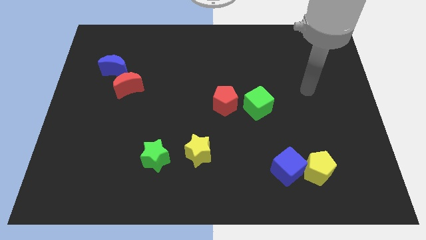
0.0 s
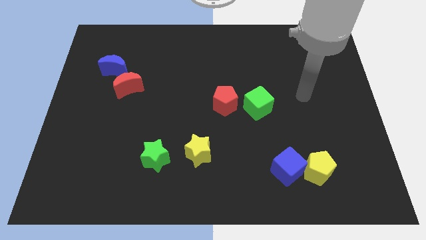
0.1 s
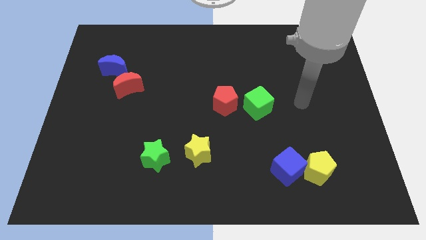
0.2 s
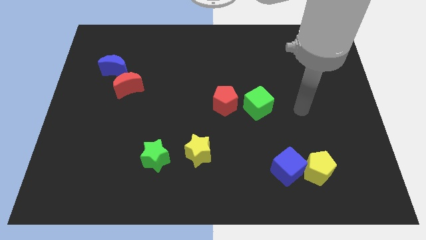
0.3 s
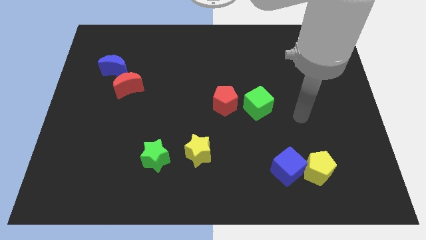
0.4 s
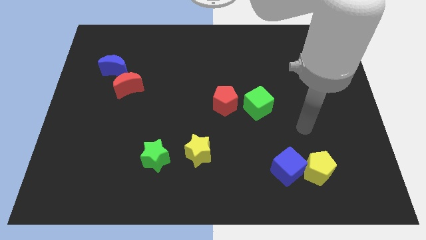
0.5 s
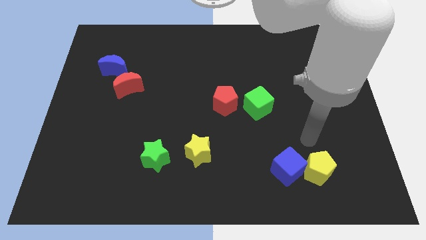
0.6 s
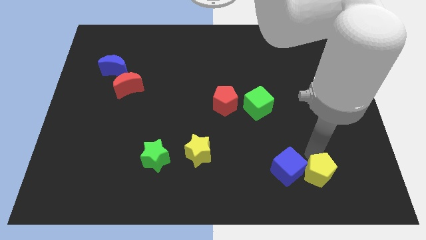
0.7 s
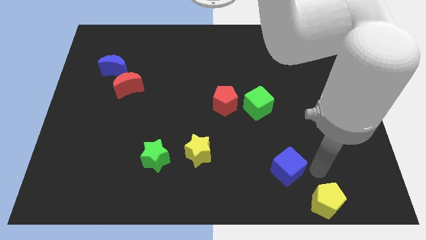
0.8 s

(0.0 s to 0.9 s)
separate the blue cube from the yellow pentagon

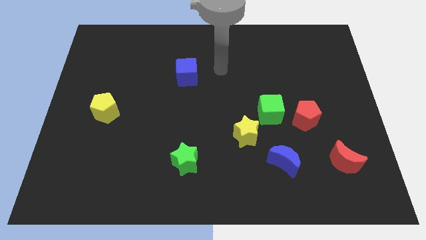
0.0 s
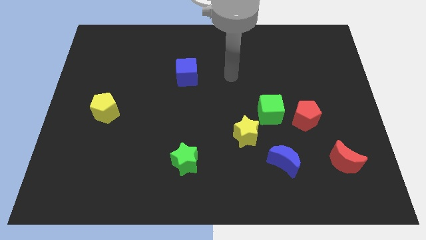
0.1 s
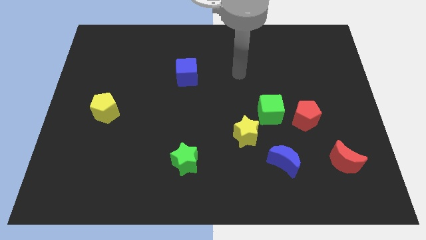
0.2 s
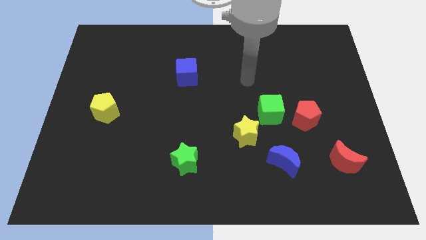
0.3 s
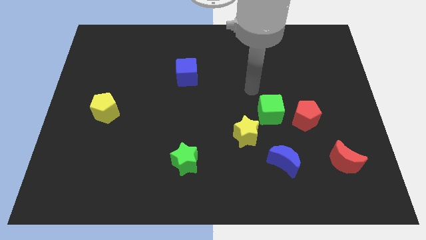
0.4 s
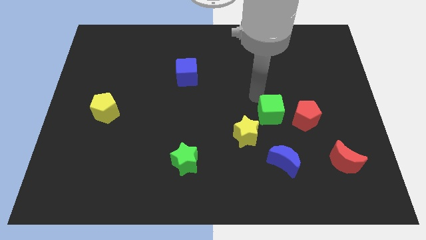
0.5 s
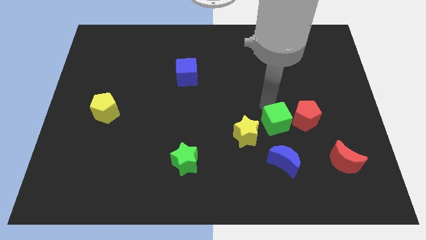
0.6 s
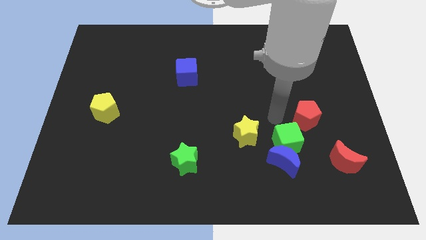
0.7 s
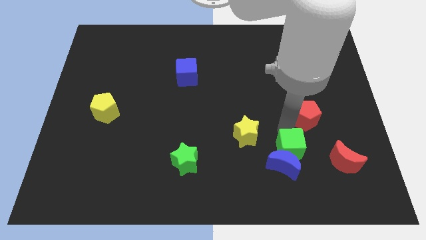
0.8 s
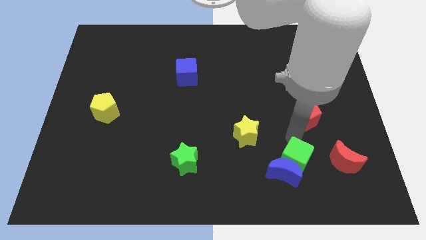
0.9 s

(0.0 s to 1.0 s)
move the red pentagon away from the green cube

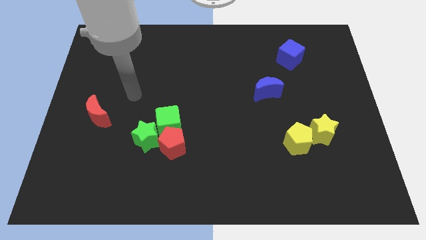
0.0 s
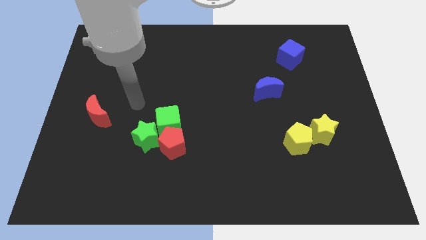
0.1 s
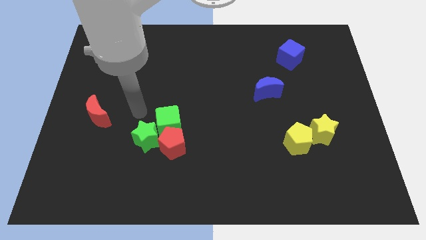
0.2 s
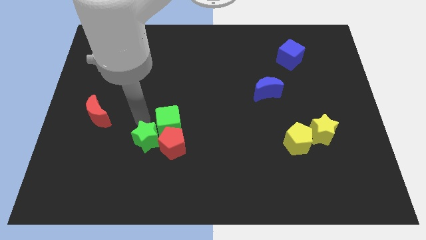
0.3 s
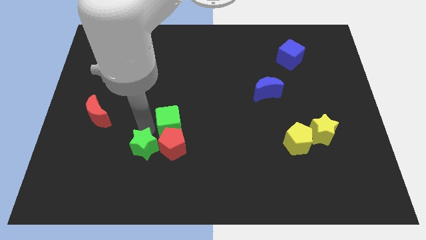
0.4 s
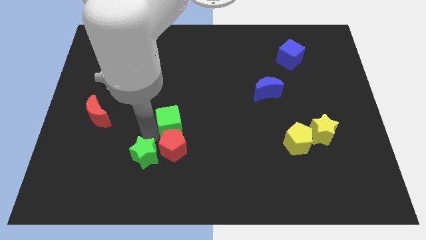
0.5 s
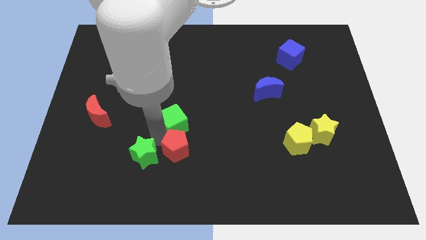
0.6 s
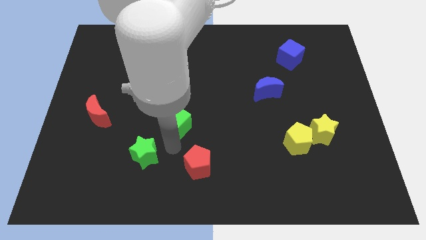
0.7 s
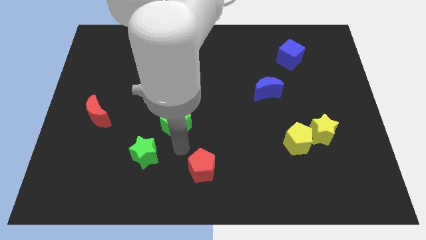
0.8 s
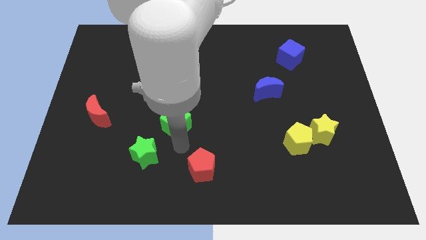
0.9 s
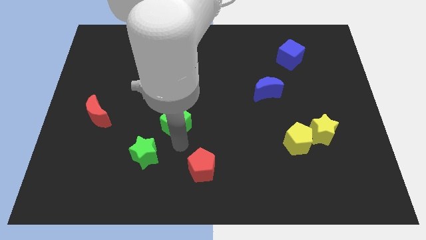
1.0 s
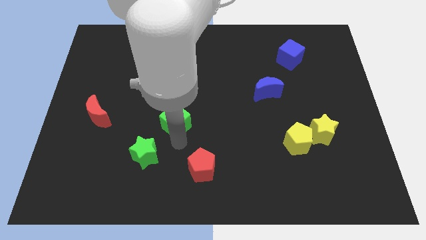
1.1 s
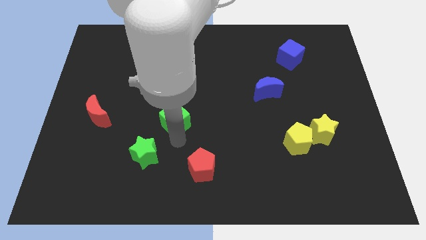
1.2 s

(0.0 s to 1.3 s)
pull the green cube apart from the green star and red pentagon

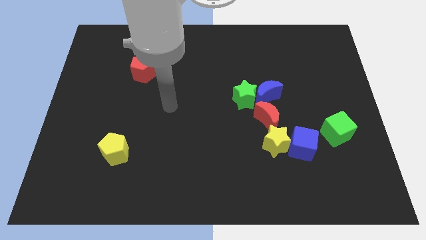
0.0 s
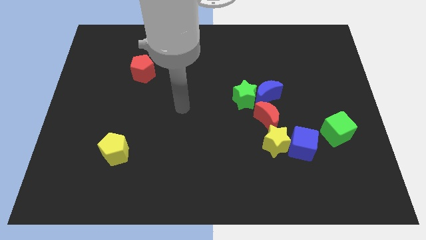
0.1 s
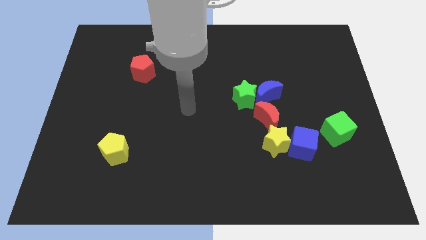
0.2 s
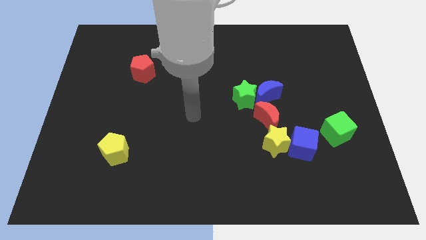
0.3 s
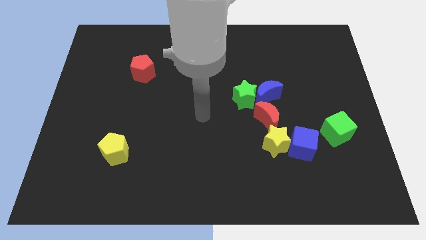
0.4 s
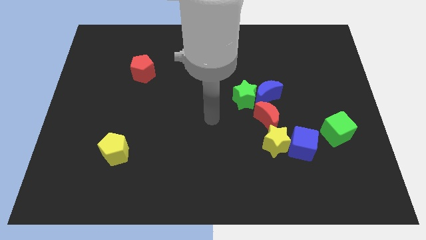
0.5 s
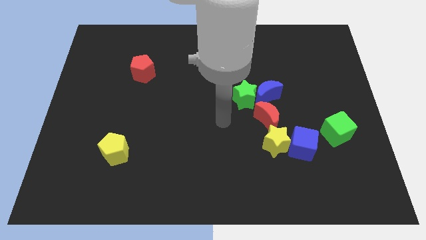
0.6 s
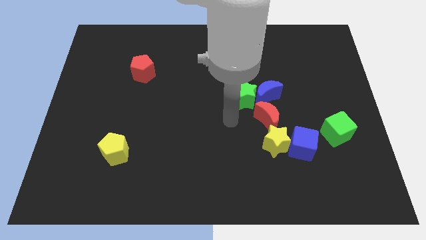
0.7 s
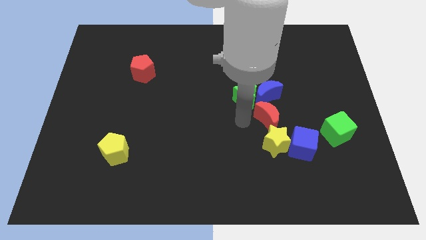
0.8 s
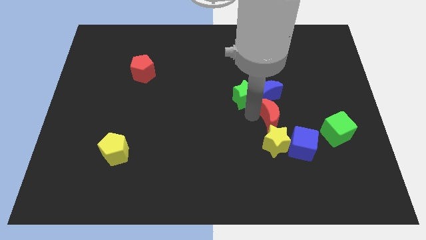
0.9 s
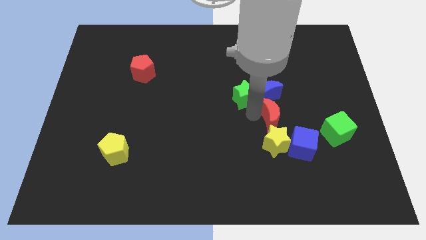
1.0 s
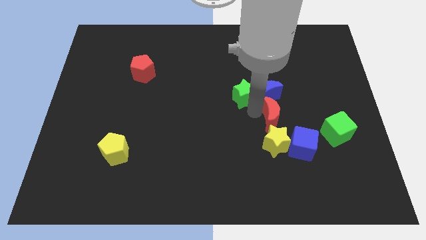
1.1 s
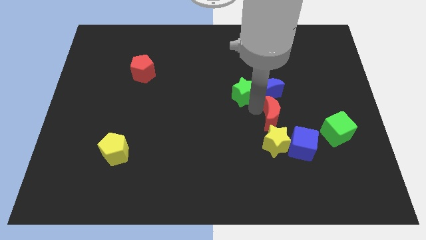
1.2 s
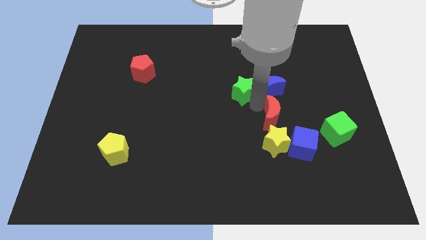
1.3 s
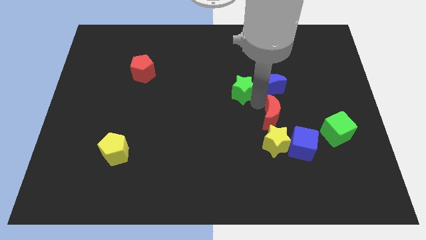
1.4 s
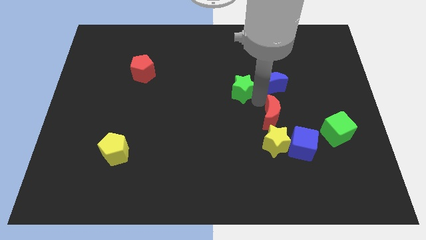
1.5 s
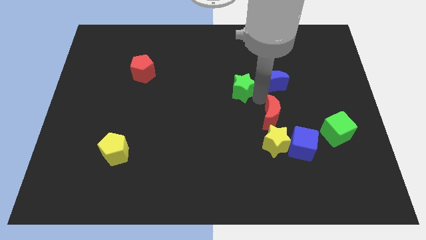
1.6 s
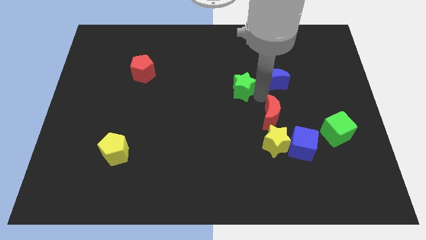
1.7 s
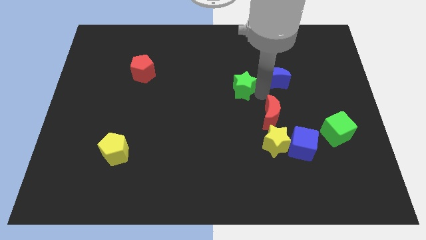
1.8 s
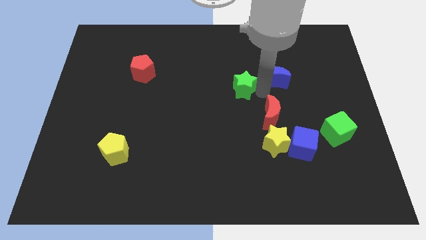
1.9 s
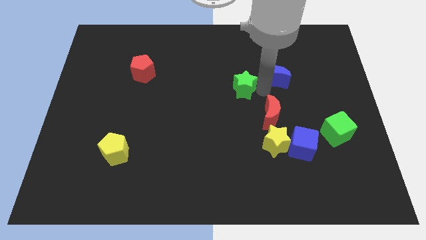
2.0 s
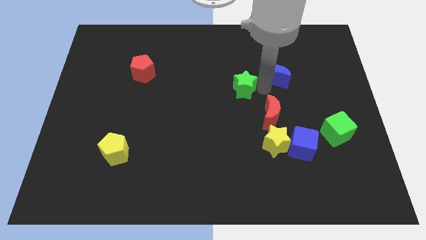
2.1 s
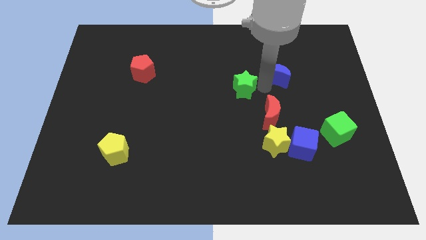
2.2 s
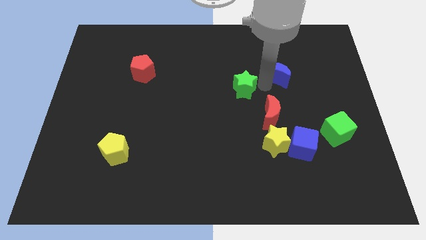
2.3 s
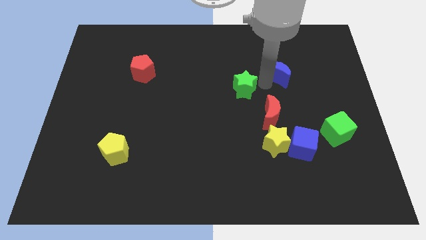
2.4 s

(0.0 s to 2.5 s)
move the blue moon away from the green star and red moon

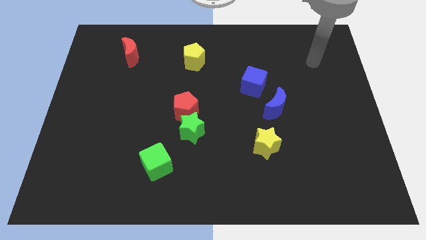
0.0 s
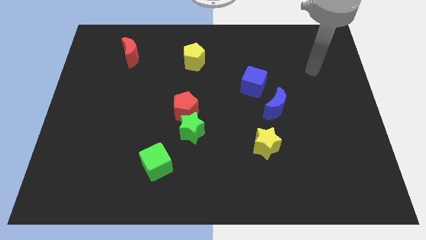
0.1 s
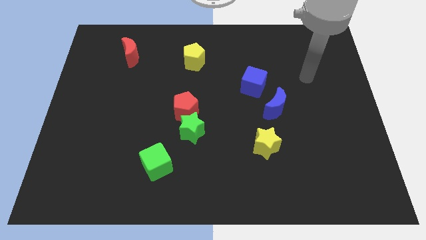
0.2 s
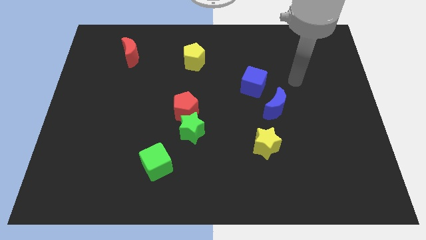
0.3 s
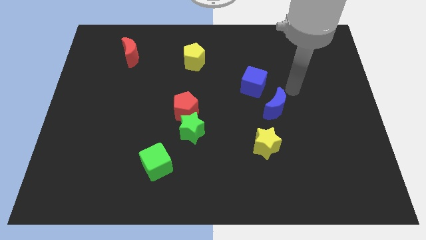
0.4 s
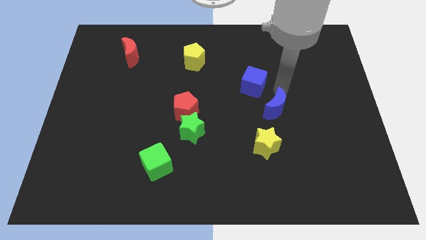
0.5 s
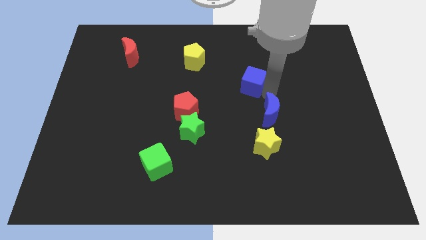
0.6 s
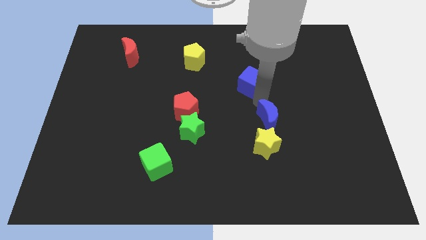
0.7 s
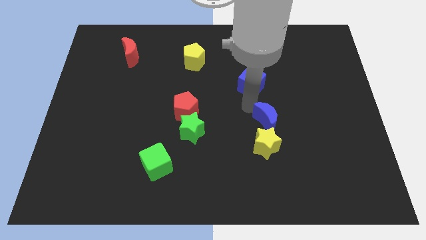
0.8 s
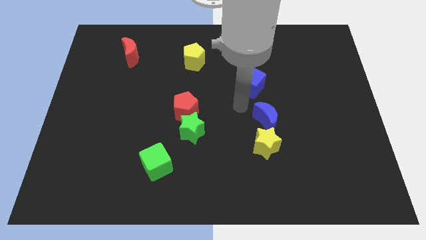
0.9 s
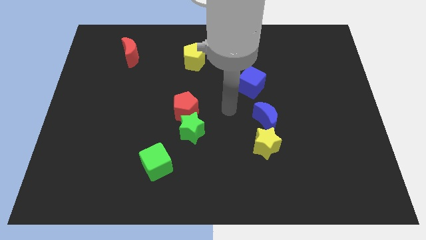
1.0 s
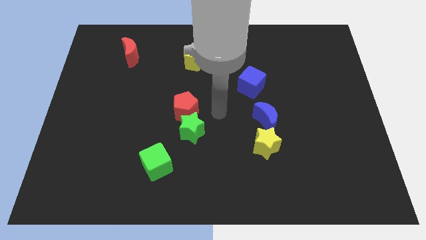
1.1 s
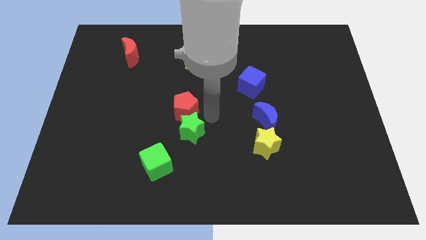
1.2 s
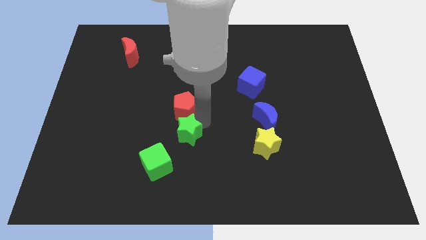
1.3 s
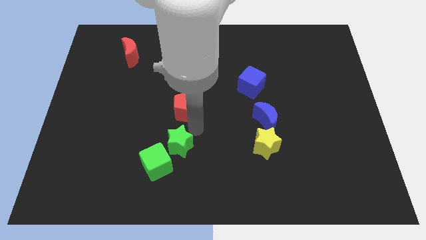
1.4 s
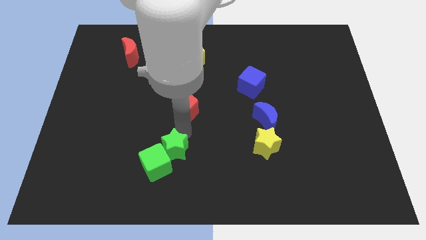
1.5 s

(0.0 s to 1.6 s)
move the red pentagon away from the green star

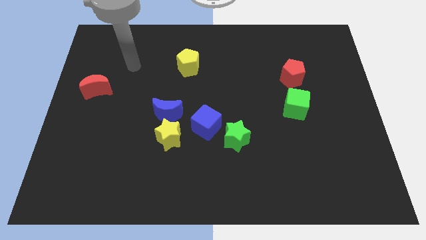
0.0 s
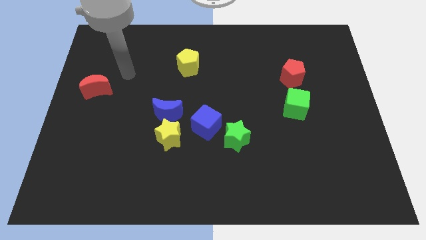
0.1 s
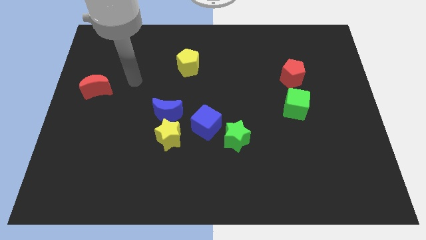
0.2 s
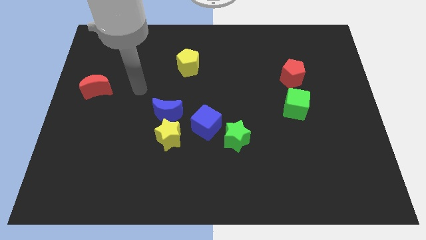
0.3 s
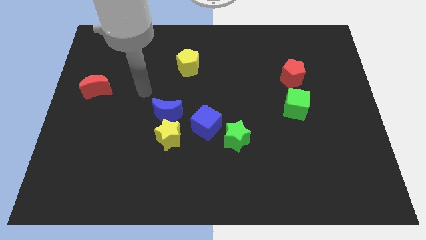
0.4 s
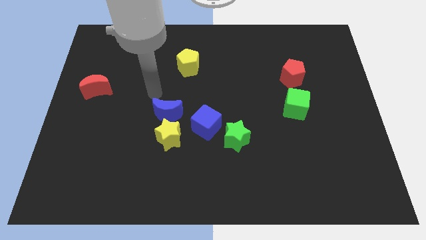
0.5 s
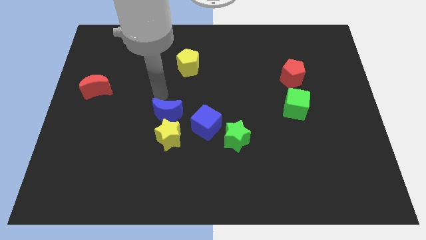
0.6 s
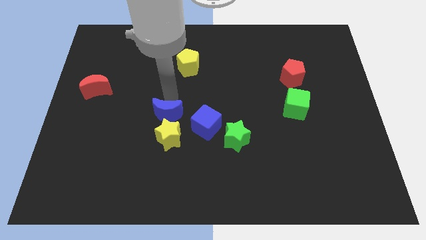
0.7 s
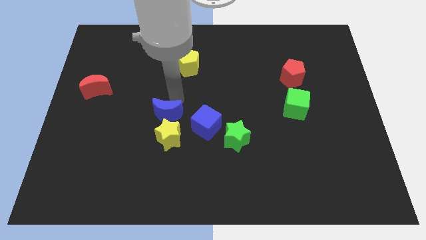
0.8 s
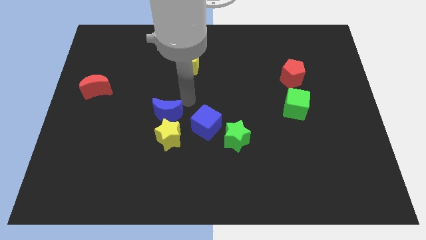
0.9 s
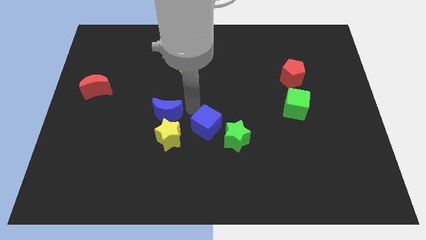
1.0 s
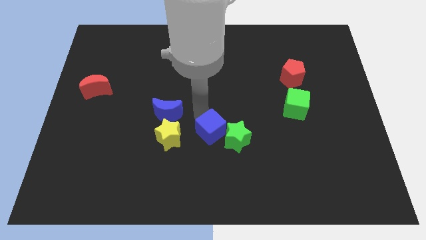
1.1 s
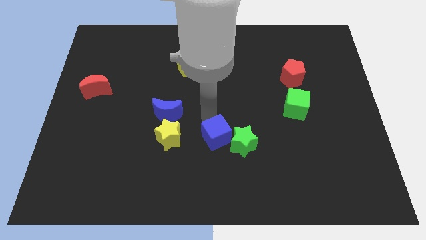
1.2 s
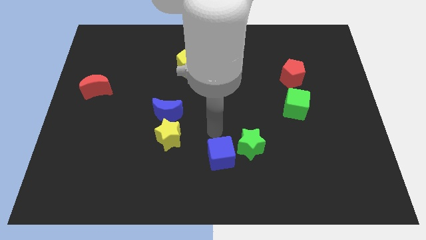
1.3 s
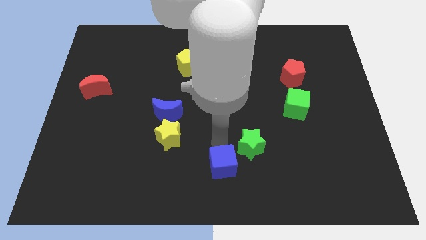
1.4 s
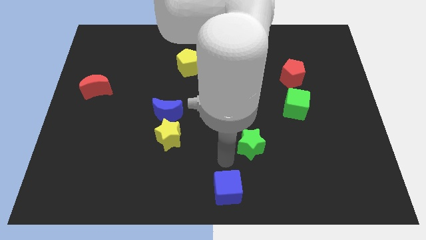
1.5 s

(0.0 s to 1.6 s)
pull the green star apart from the blue cube

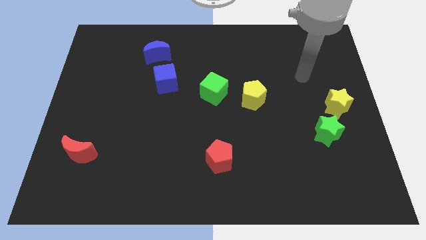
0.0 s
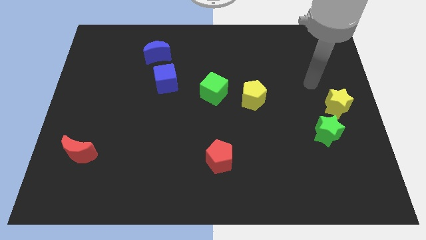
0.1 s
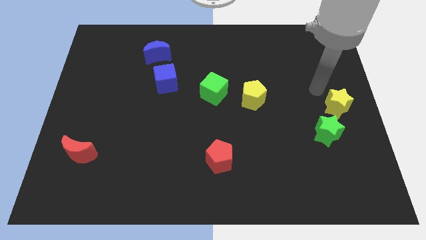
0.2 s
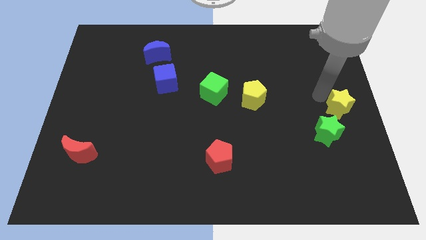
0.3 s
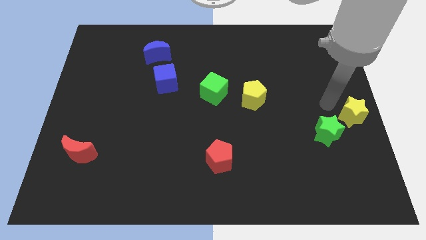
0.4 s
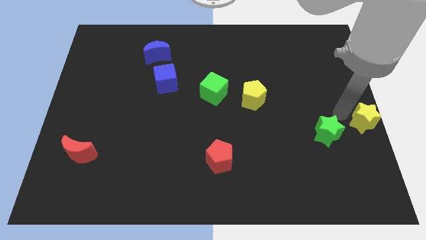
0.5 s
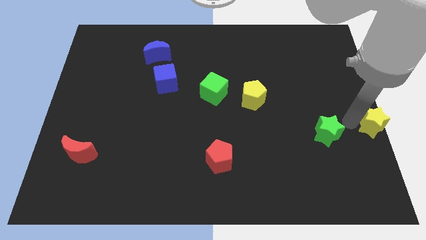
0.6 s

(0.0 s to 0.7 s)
move the green star away from the yellow star
